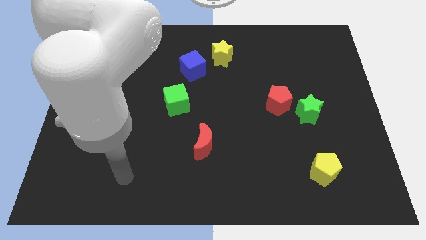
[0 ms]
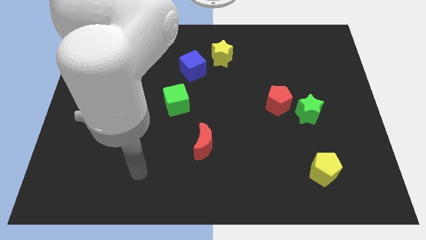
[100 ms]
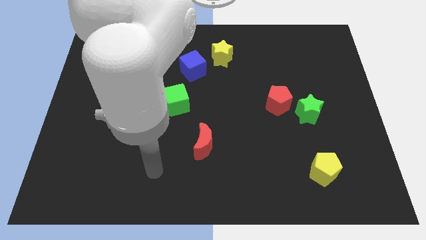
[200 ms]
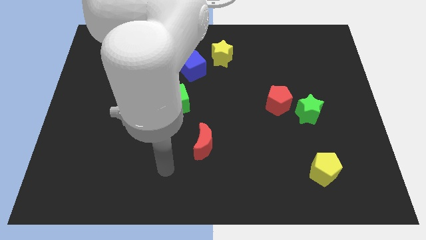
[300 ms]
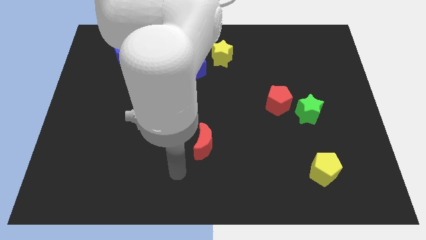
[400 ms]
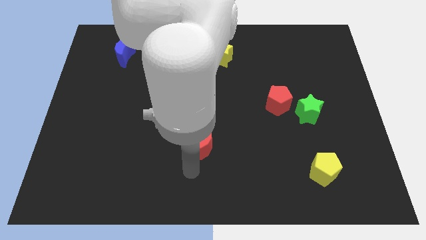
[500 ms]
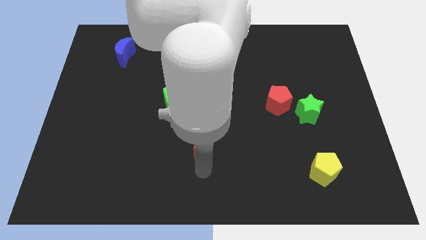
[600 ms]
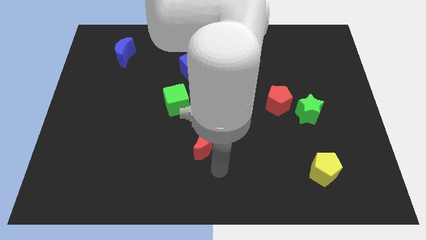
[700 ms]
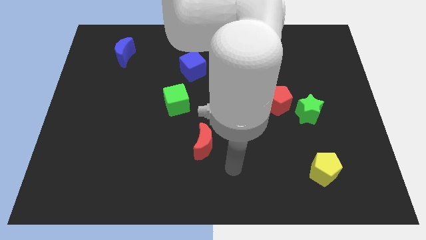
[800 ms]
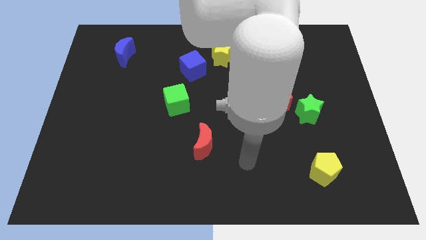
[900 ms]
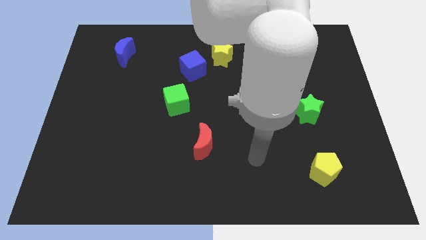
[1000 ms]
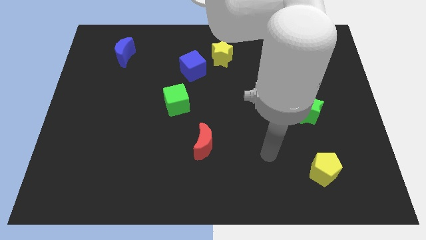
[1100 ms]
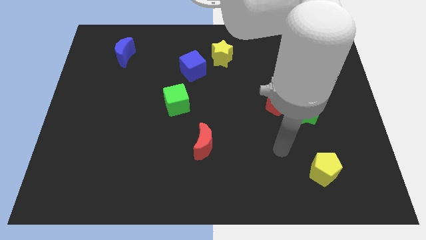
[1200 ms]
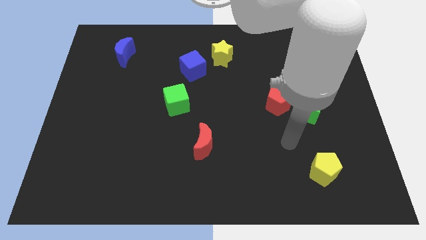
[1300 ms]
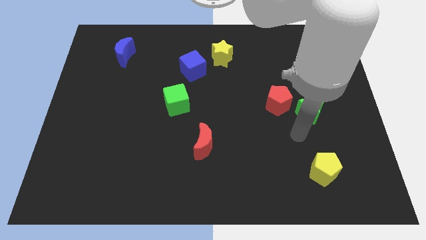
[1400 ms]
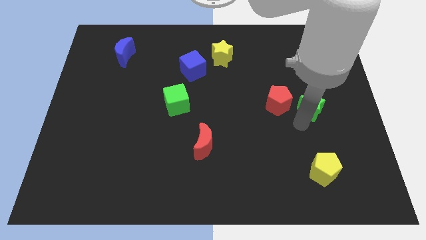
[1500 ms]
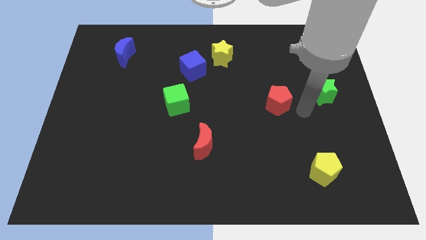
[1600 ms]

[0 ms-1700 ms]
separate the red pentagon from the green star

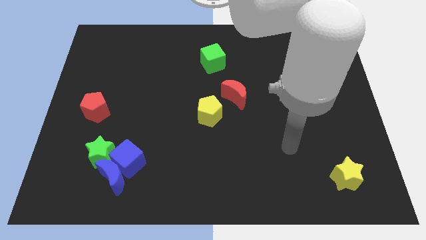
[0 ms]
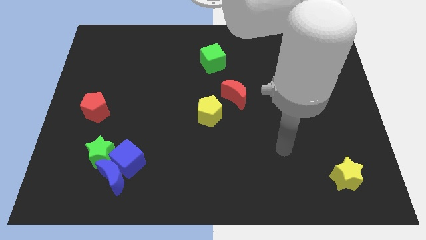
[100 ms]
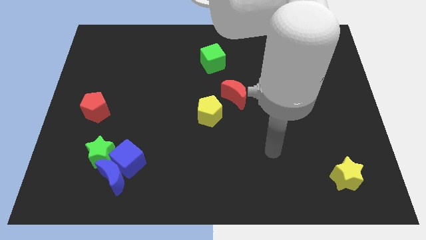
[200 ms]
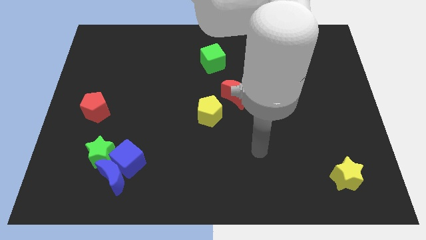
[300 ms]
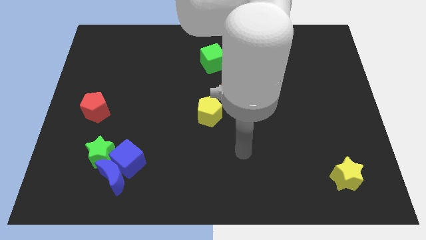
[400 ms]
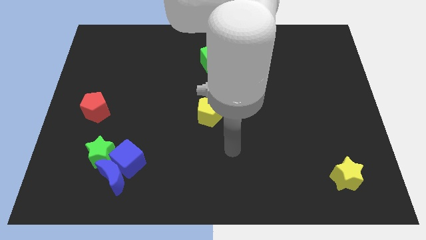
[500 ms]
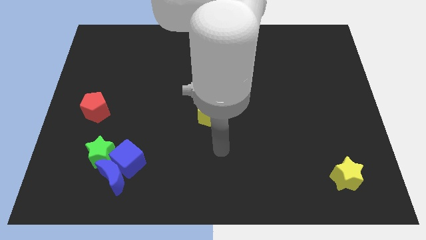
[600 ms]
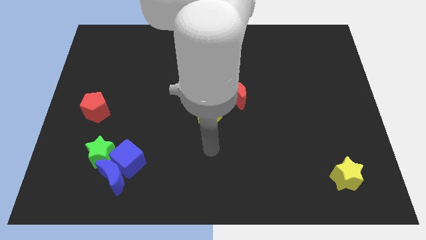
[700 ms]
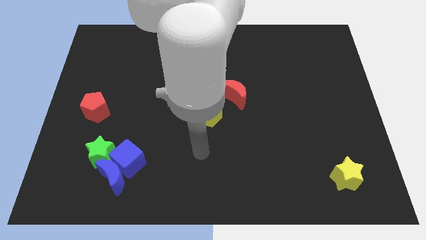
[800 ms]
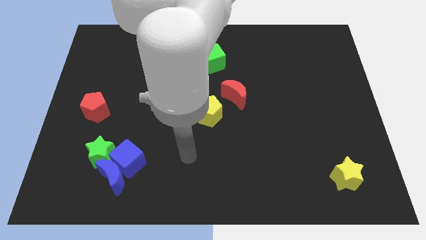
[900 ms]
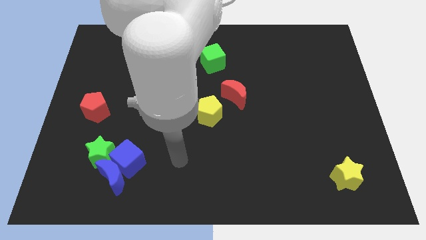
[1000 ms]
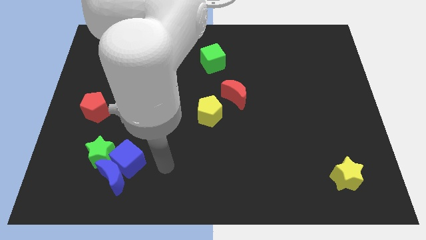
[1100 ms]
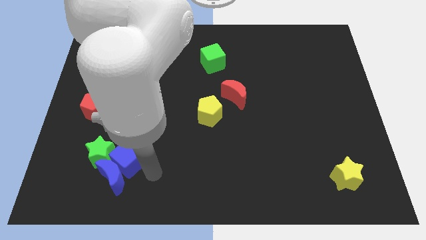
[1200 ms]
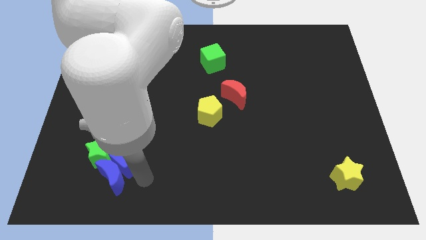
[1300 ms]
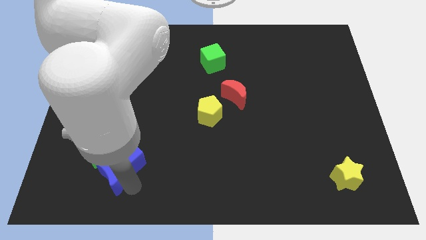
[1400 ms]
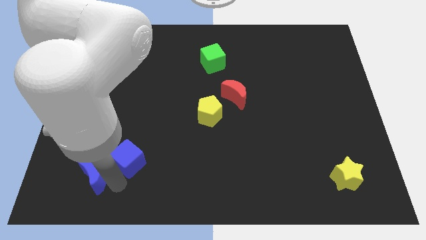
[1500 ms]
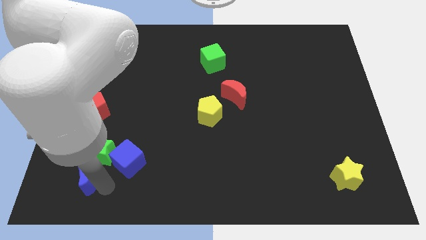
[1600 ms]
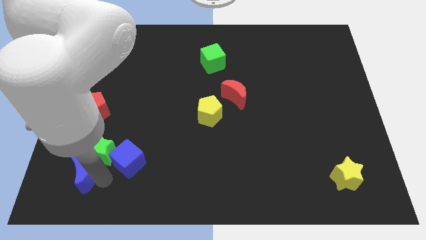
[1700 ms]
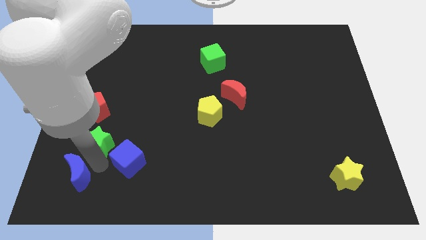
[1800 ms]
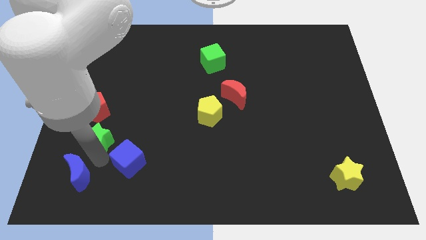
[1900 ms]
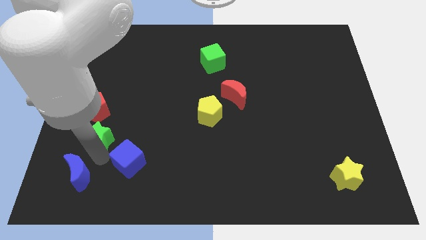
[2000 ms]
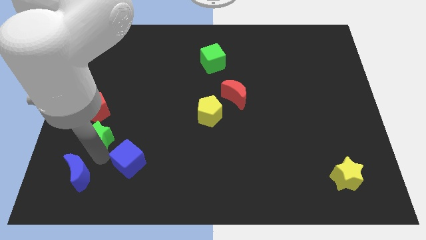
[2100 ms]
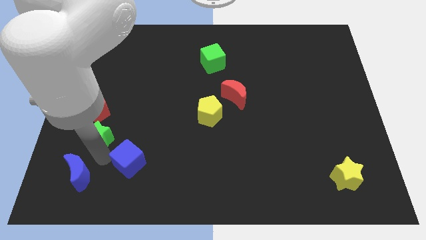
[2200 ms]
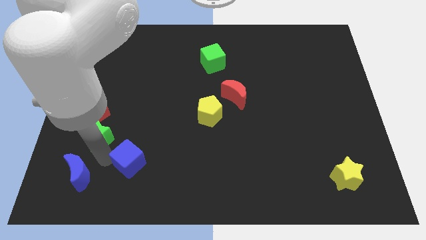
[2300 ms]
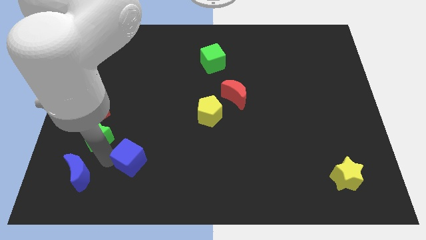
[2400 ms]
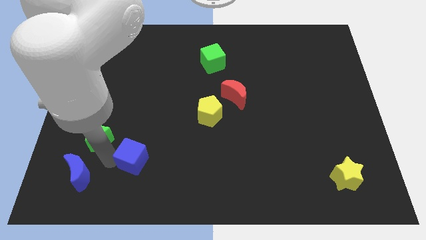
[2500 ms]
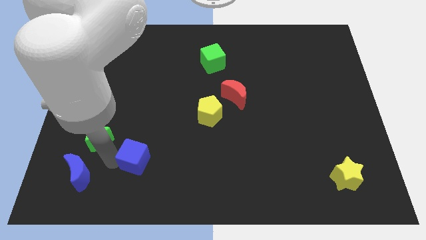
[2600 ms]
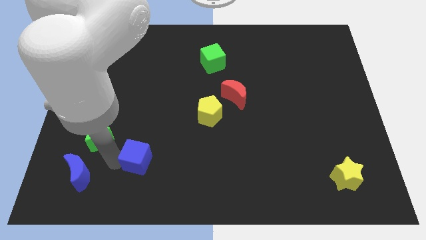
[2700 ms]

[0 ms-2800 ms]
separate the blue cube from the blue moon and green star

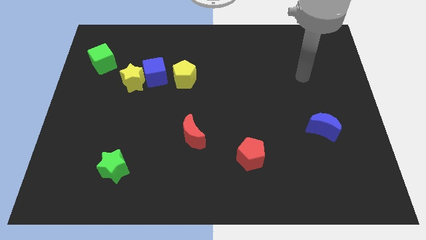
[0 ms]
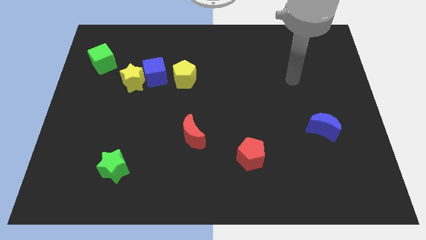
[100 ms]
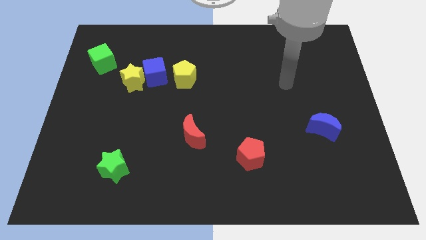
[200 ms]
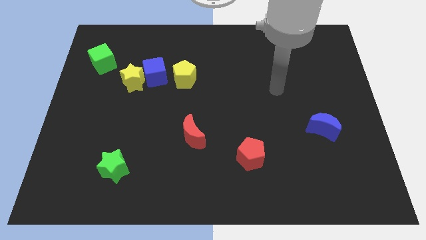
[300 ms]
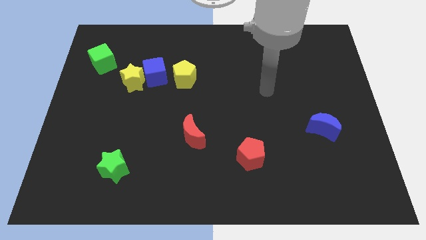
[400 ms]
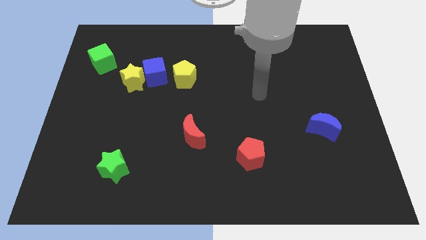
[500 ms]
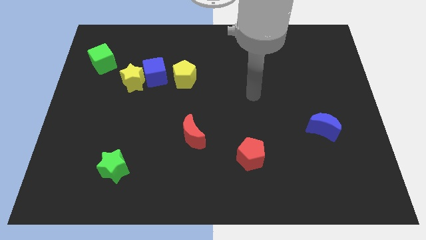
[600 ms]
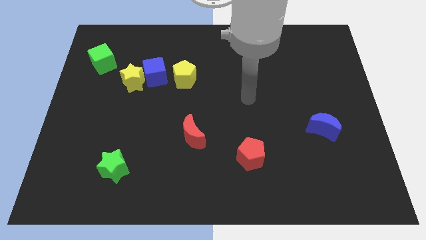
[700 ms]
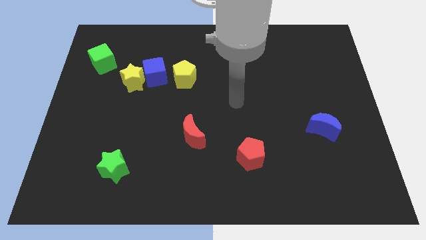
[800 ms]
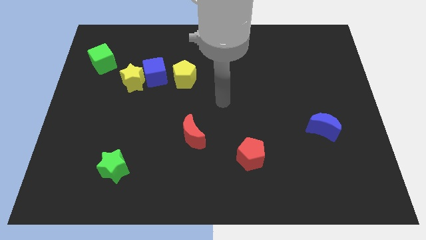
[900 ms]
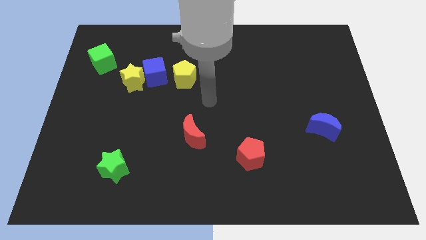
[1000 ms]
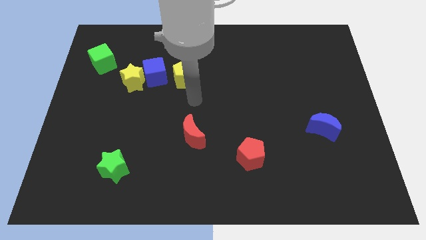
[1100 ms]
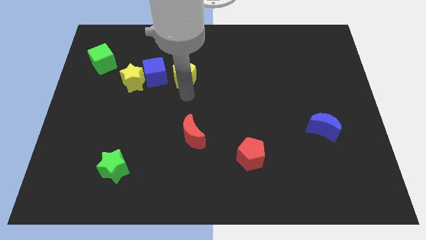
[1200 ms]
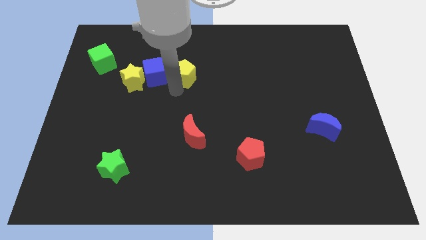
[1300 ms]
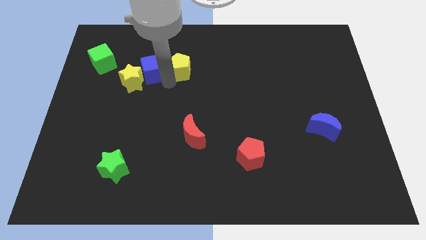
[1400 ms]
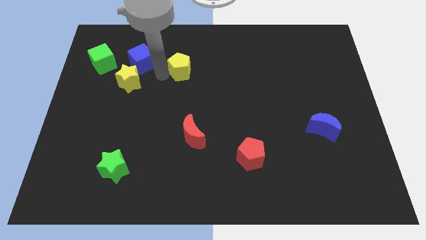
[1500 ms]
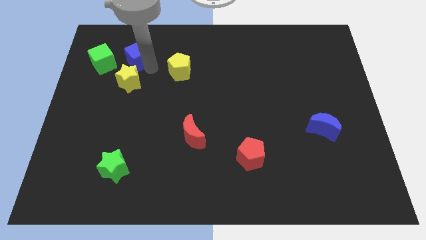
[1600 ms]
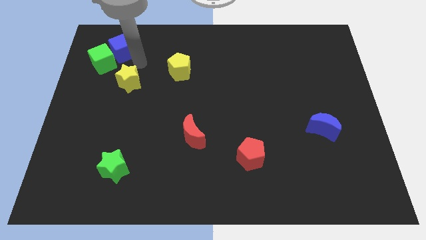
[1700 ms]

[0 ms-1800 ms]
pull the yellow star apart from the blue cube

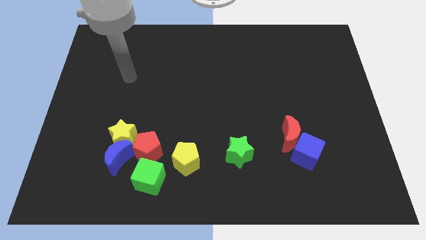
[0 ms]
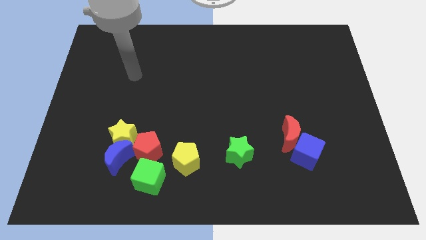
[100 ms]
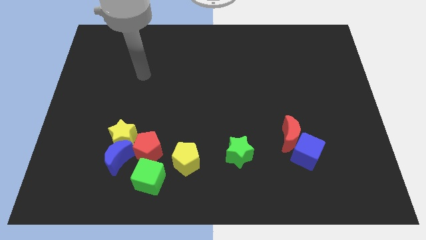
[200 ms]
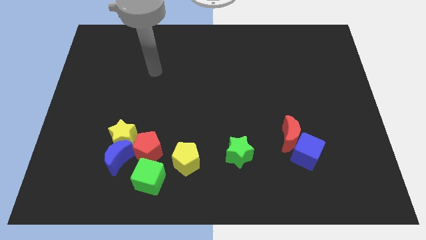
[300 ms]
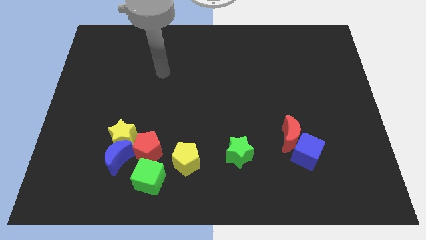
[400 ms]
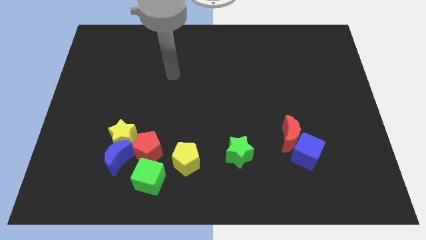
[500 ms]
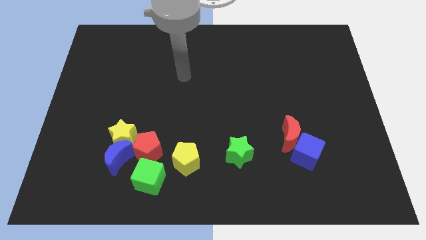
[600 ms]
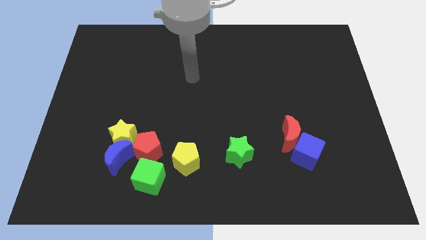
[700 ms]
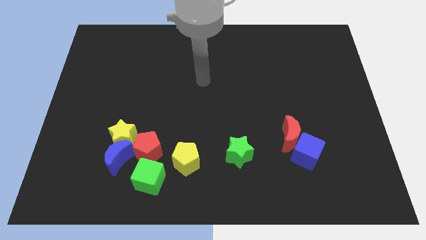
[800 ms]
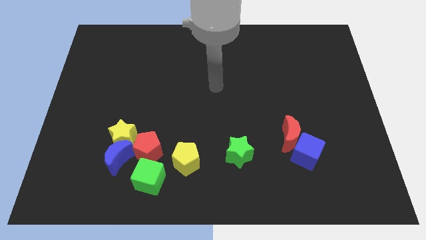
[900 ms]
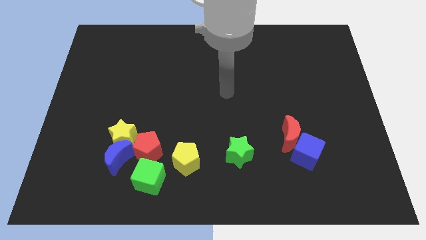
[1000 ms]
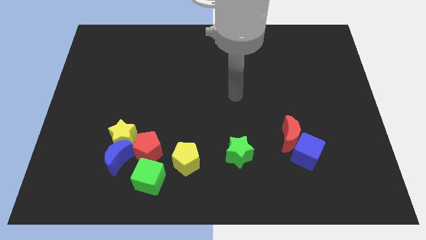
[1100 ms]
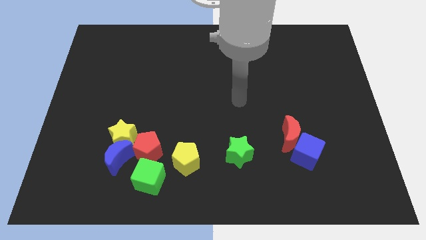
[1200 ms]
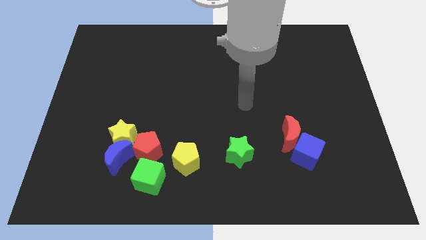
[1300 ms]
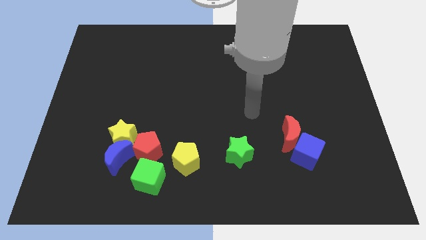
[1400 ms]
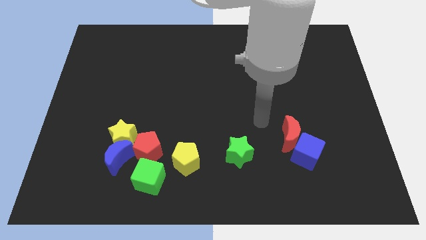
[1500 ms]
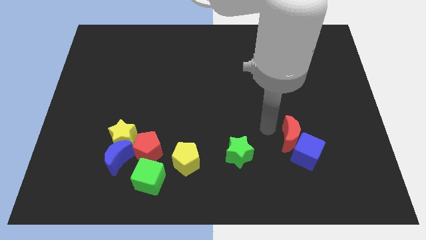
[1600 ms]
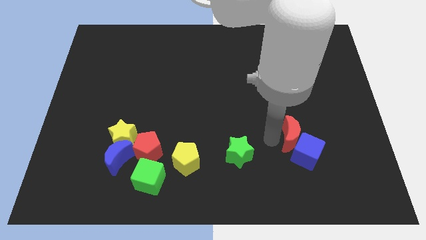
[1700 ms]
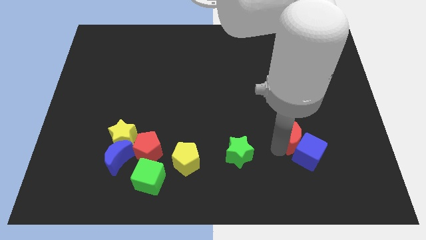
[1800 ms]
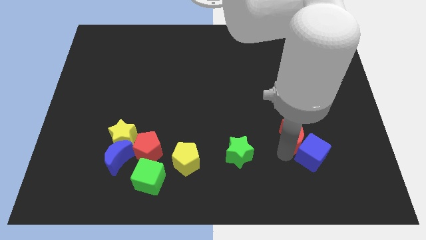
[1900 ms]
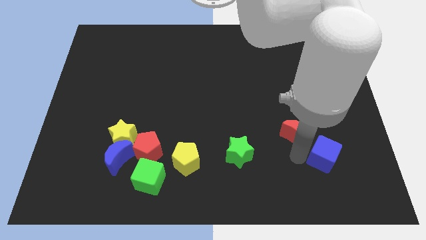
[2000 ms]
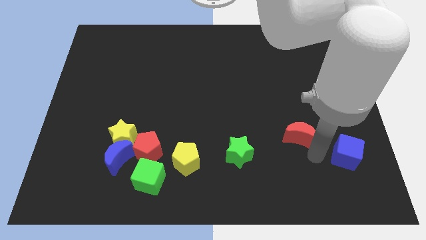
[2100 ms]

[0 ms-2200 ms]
pull the red moon apart from the blue cube

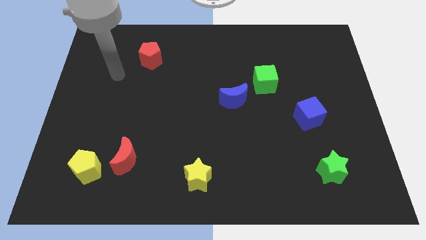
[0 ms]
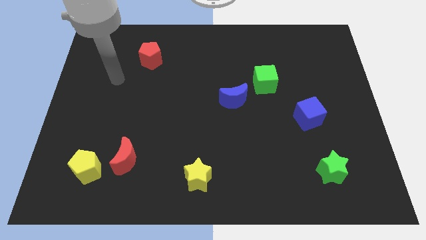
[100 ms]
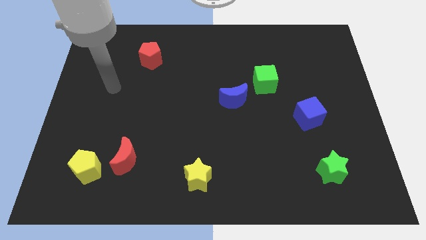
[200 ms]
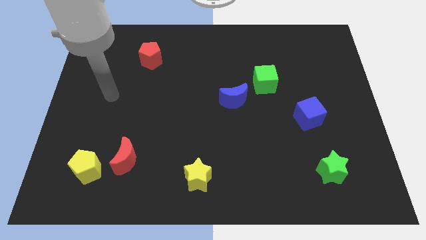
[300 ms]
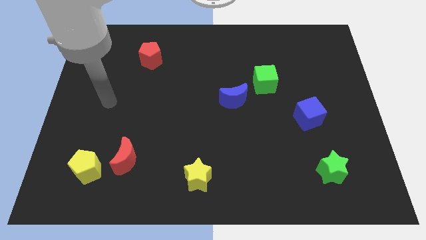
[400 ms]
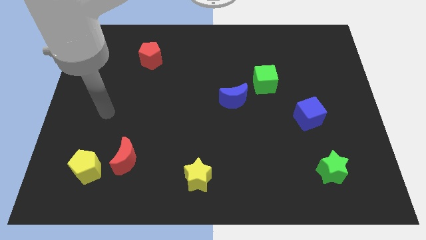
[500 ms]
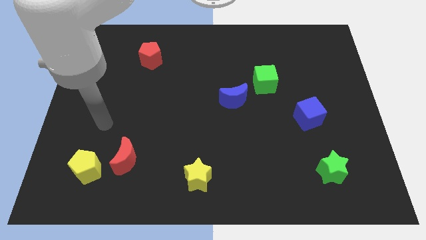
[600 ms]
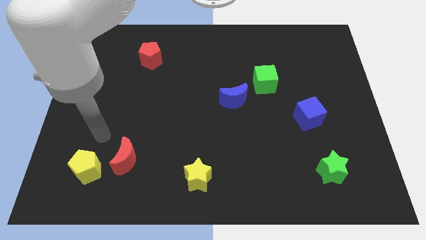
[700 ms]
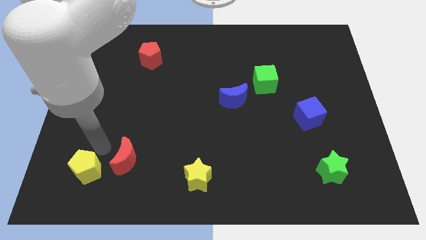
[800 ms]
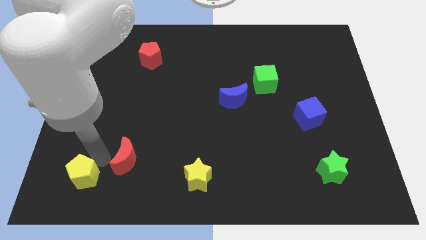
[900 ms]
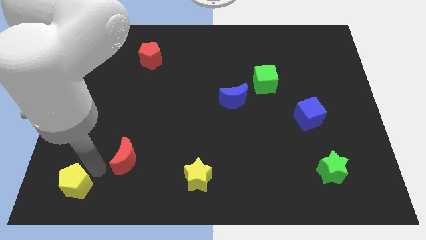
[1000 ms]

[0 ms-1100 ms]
separate the red moon from the yellow pentagon
